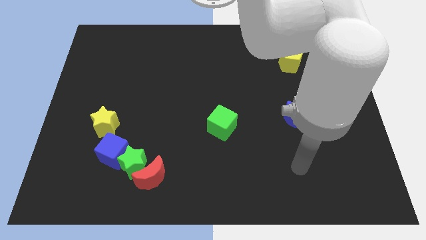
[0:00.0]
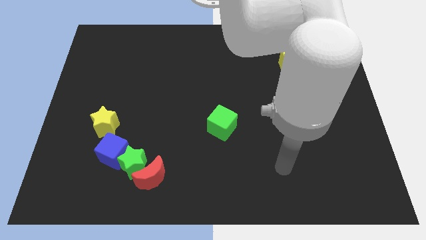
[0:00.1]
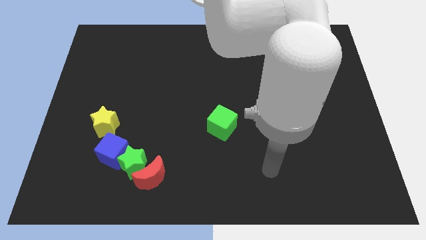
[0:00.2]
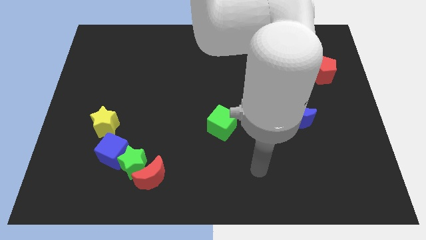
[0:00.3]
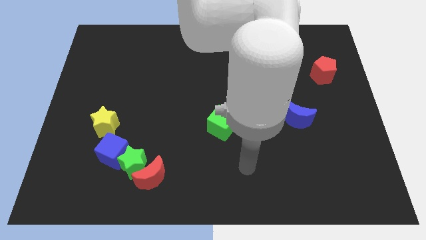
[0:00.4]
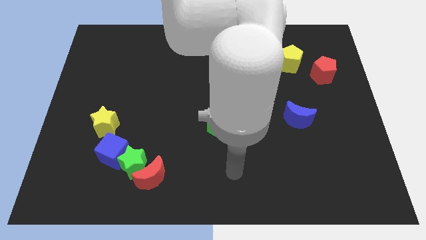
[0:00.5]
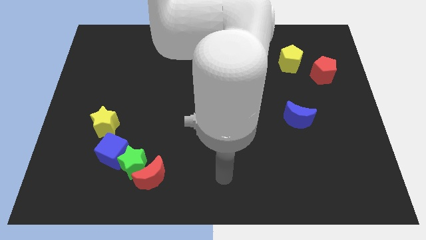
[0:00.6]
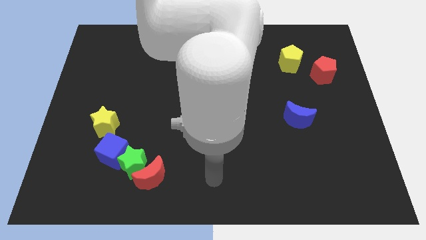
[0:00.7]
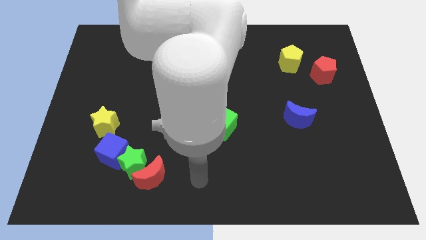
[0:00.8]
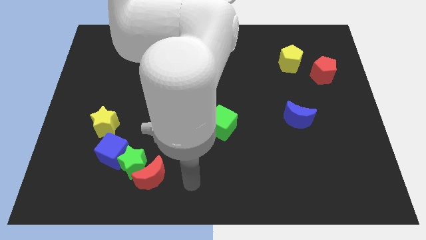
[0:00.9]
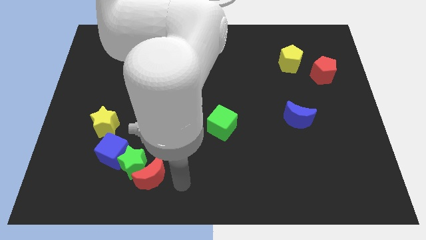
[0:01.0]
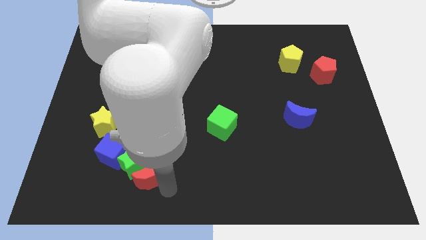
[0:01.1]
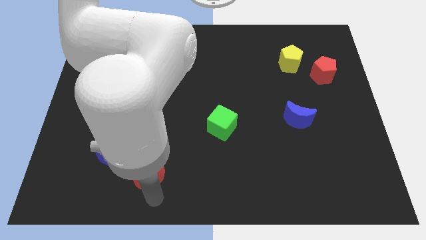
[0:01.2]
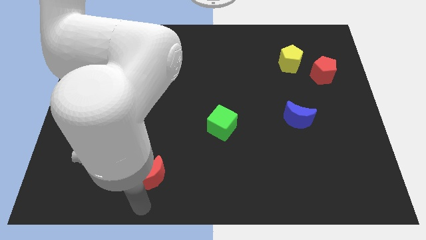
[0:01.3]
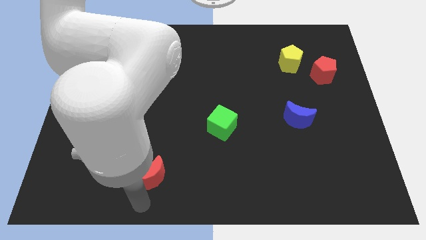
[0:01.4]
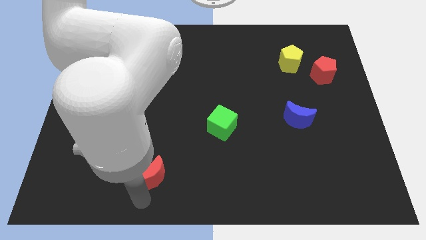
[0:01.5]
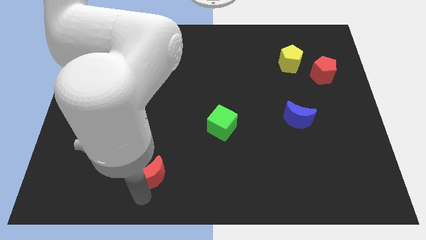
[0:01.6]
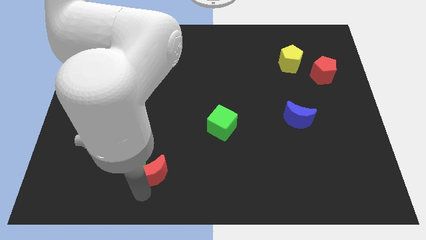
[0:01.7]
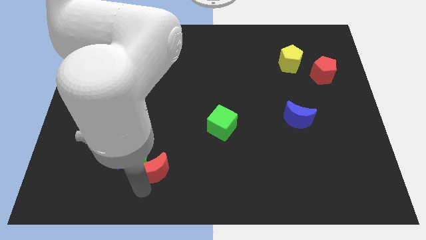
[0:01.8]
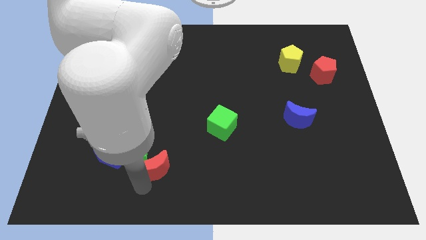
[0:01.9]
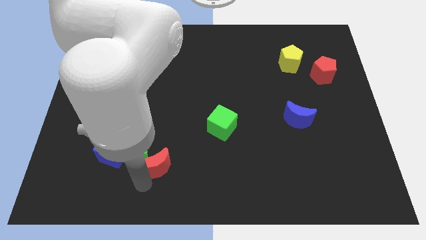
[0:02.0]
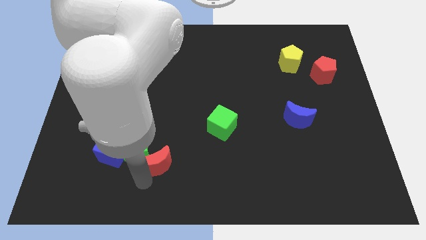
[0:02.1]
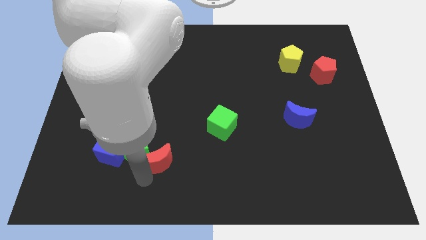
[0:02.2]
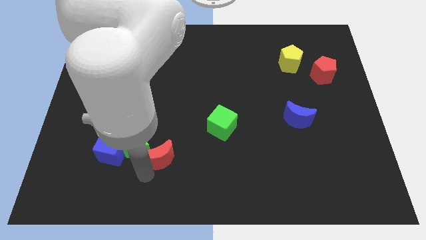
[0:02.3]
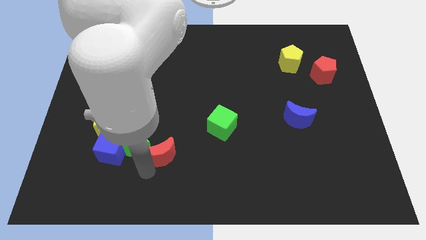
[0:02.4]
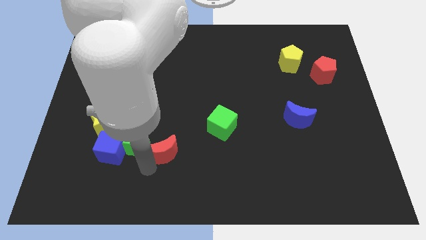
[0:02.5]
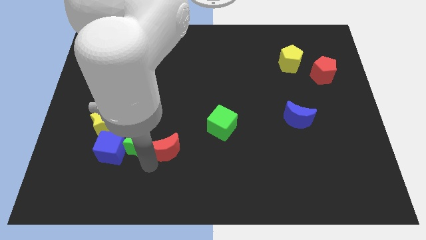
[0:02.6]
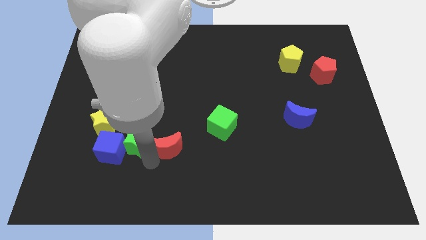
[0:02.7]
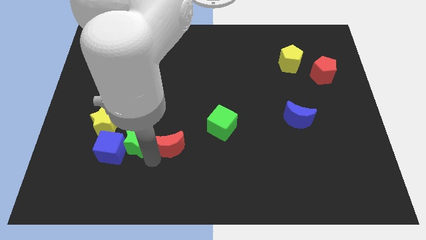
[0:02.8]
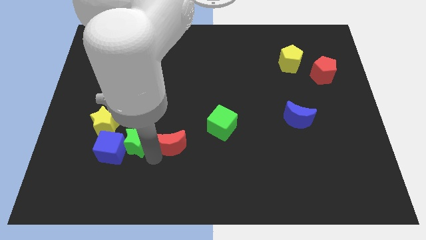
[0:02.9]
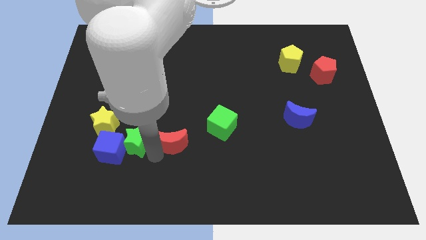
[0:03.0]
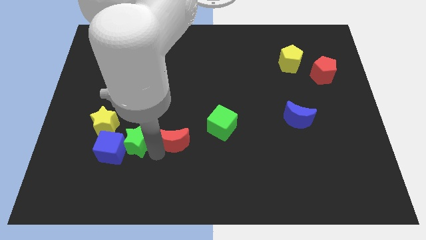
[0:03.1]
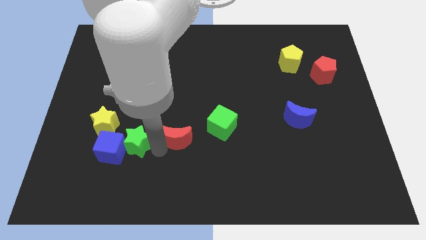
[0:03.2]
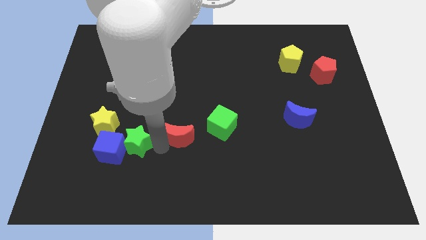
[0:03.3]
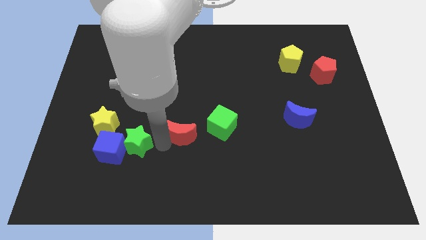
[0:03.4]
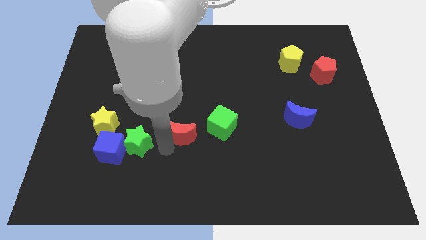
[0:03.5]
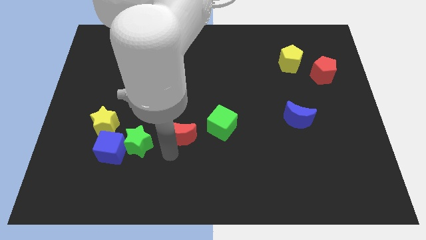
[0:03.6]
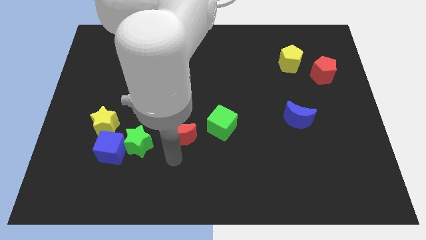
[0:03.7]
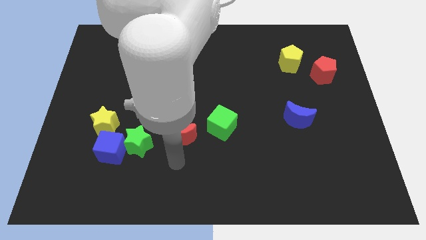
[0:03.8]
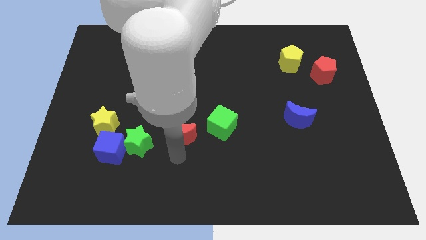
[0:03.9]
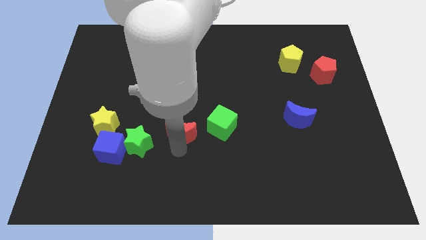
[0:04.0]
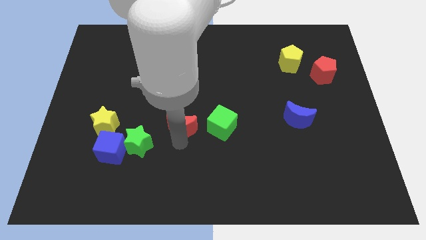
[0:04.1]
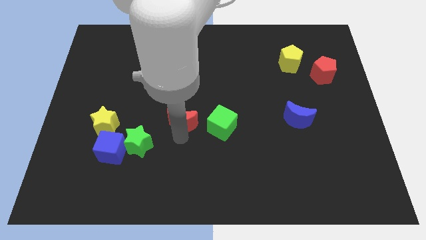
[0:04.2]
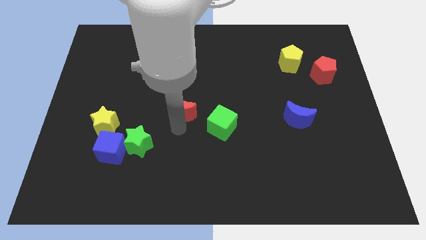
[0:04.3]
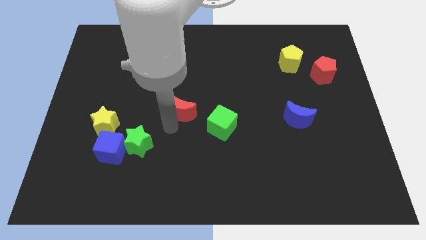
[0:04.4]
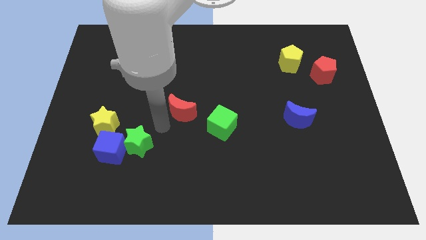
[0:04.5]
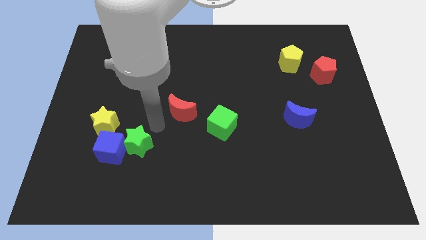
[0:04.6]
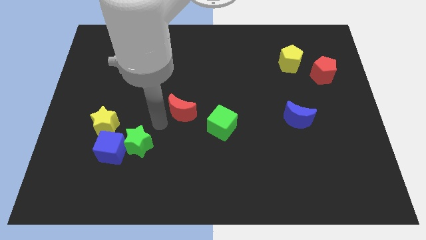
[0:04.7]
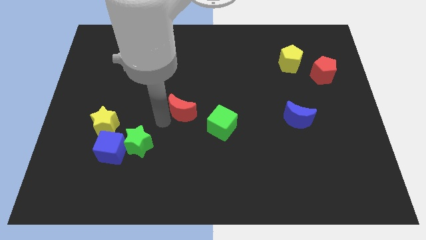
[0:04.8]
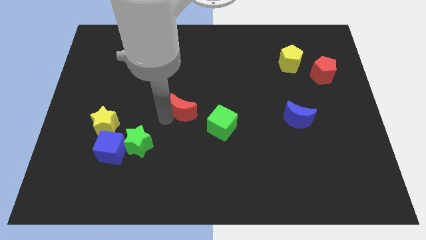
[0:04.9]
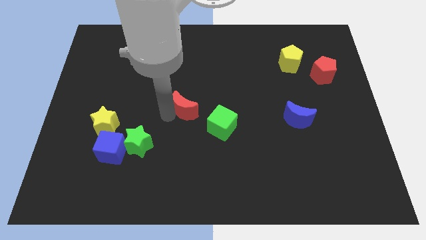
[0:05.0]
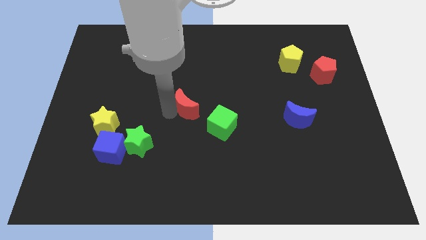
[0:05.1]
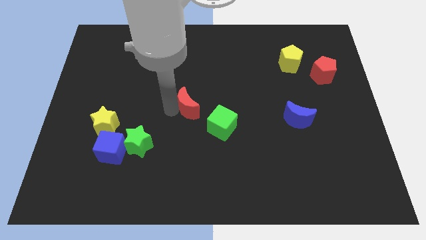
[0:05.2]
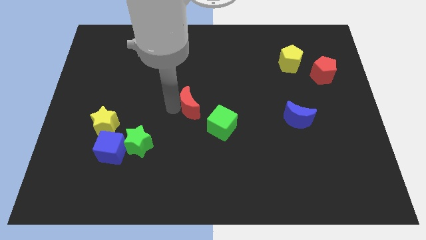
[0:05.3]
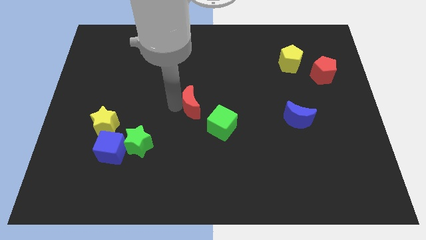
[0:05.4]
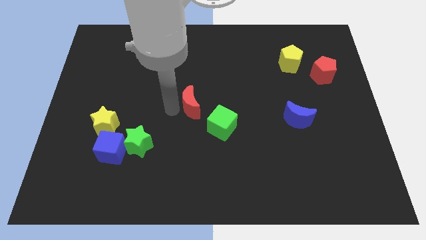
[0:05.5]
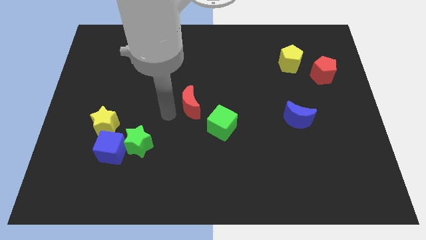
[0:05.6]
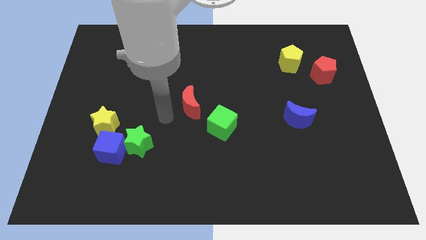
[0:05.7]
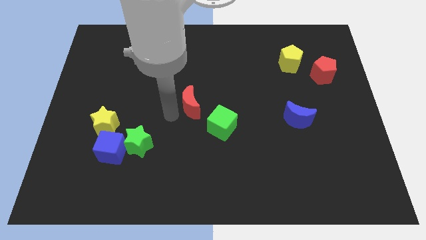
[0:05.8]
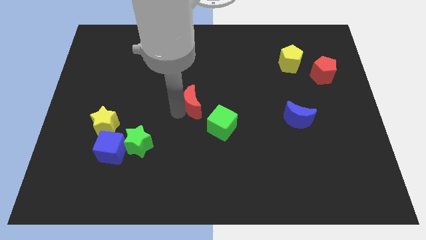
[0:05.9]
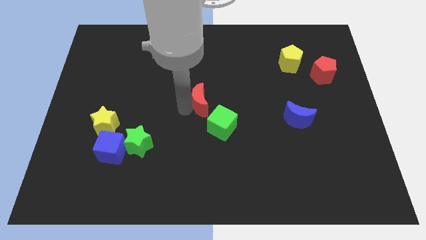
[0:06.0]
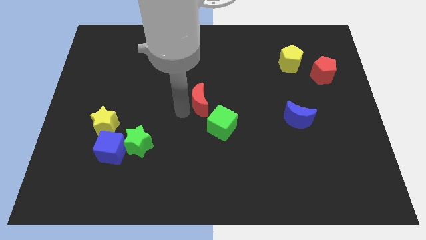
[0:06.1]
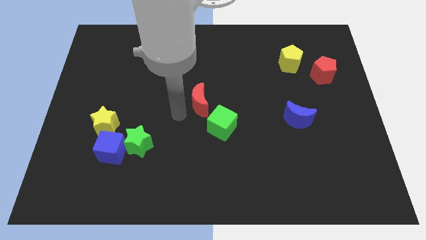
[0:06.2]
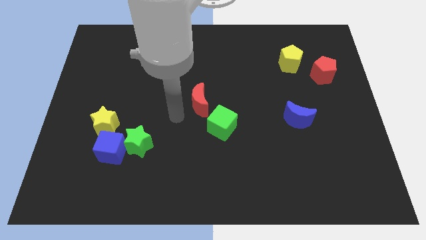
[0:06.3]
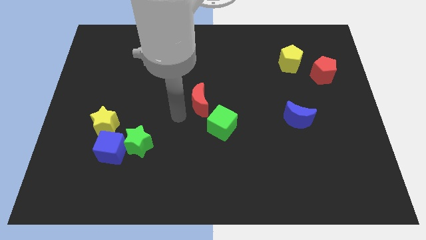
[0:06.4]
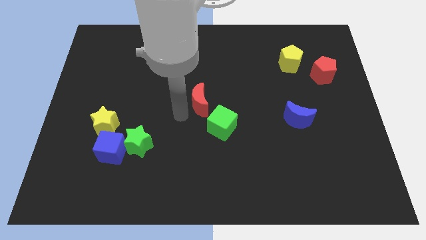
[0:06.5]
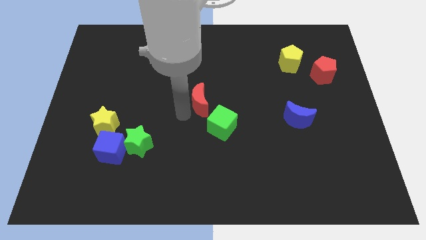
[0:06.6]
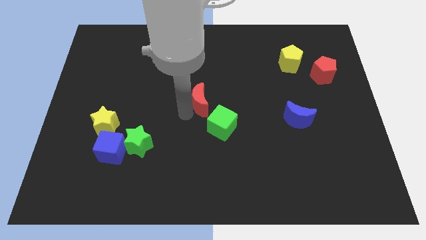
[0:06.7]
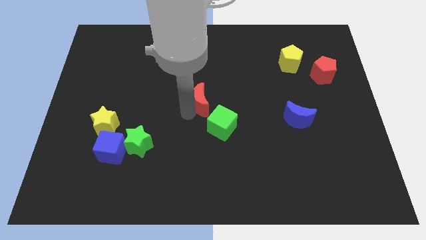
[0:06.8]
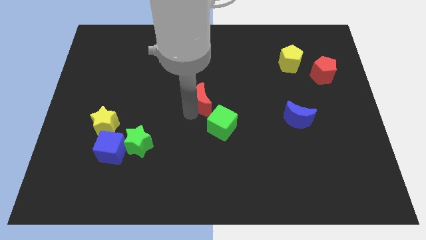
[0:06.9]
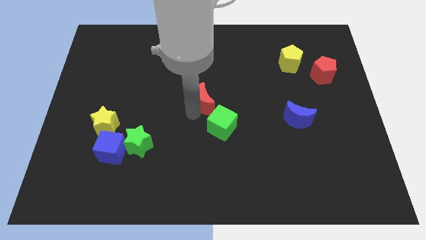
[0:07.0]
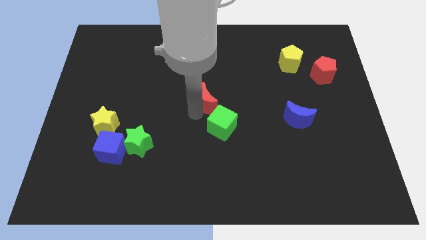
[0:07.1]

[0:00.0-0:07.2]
move the red moon up and right diagonally

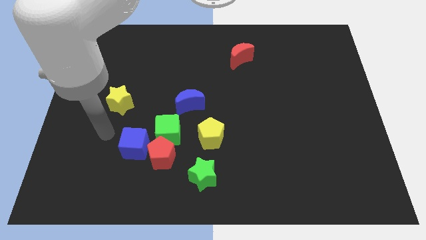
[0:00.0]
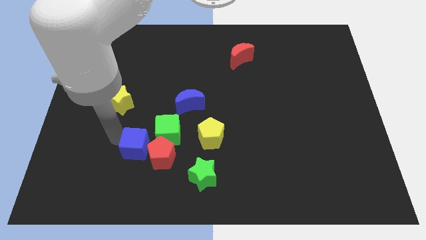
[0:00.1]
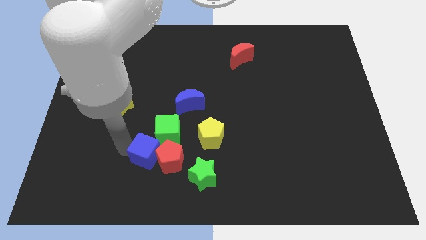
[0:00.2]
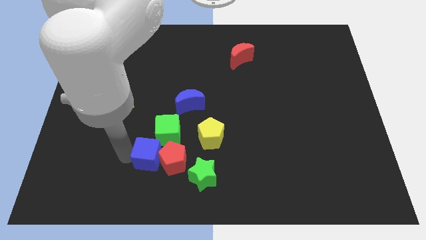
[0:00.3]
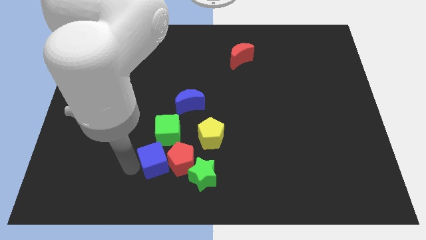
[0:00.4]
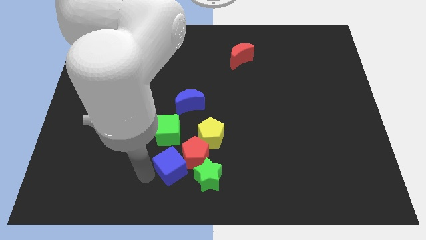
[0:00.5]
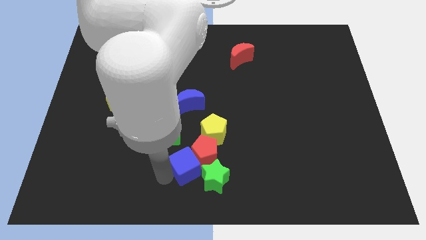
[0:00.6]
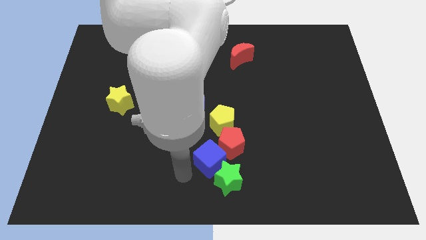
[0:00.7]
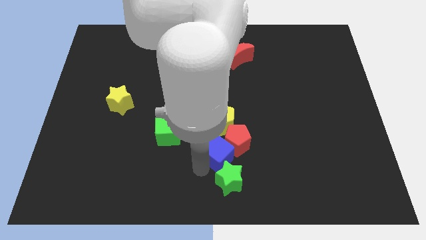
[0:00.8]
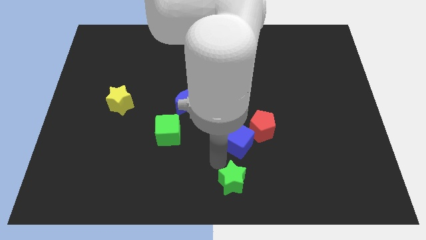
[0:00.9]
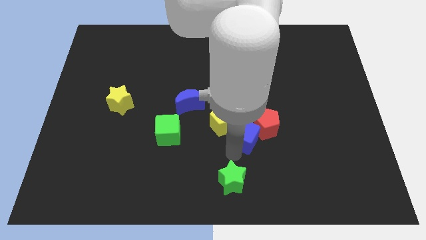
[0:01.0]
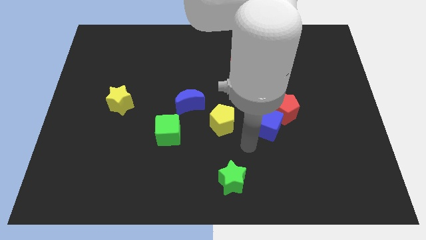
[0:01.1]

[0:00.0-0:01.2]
push the red pentagon diagonally upwards and to the right
